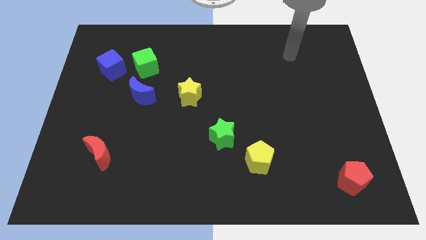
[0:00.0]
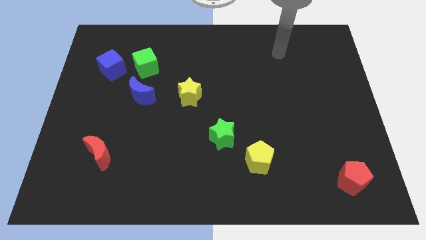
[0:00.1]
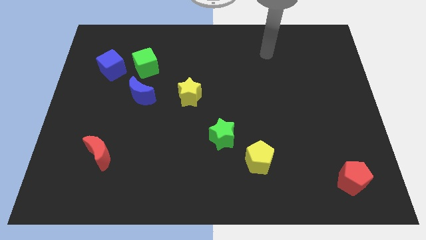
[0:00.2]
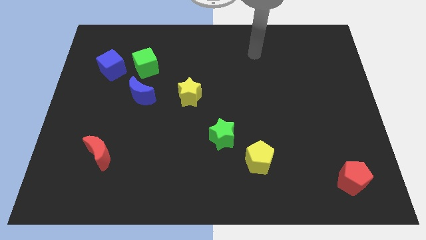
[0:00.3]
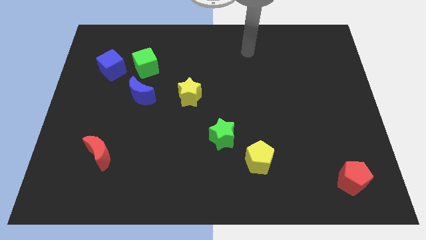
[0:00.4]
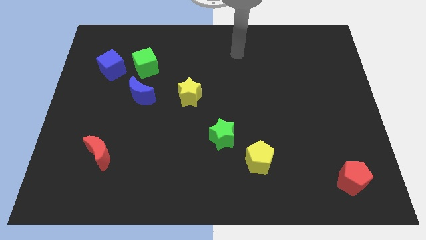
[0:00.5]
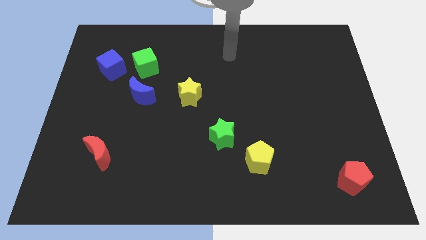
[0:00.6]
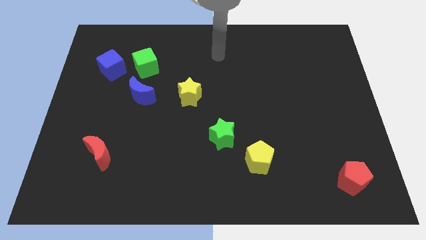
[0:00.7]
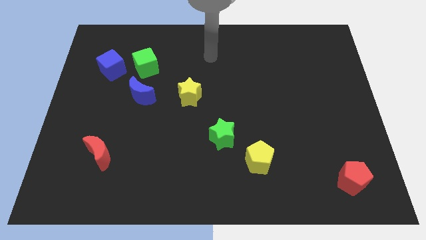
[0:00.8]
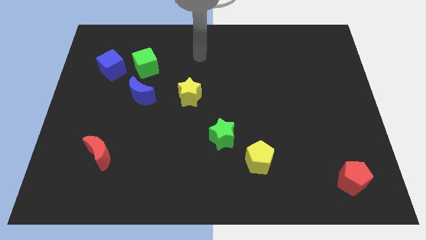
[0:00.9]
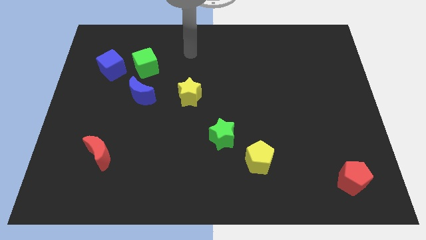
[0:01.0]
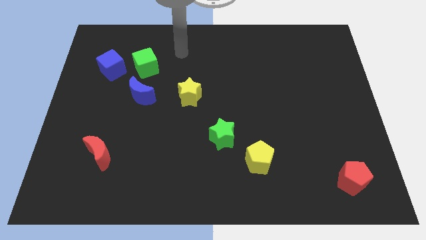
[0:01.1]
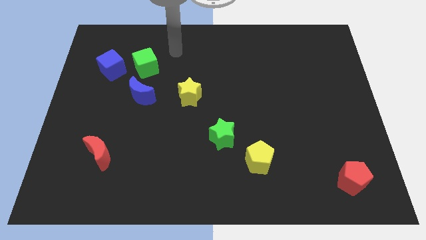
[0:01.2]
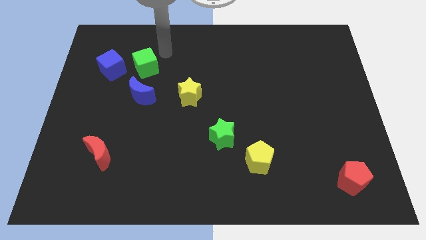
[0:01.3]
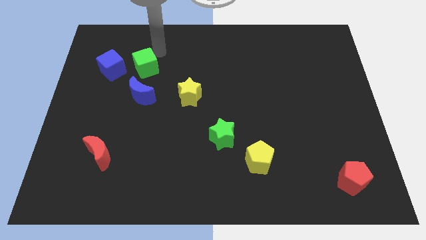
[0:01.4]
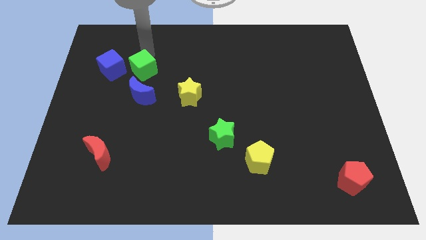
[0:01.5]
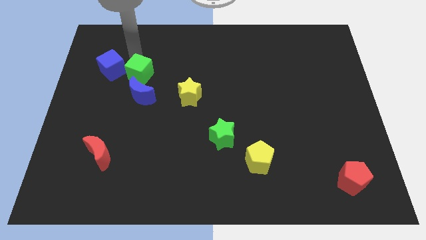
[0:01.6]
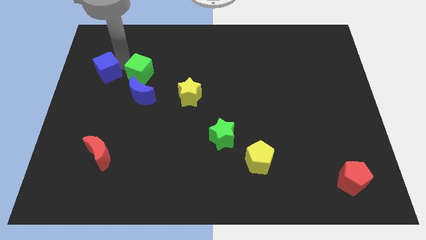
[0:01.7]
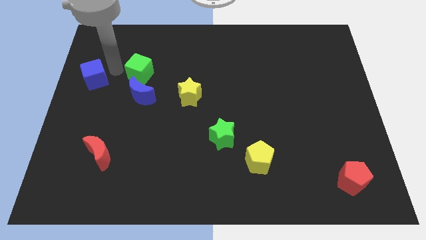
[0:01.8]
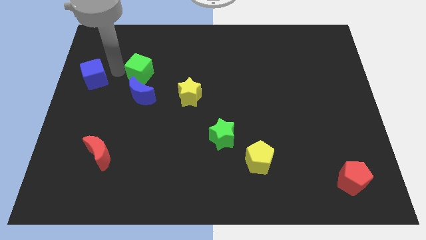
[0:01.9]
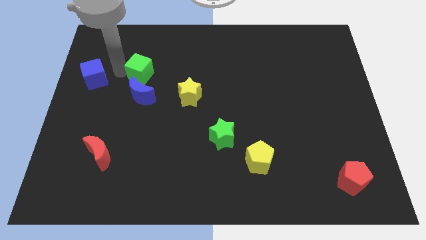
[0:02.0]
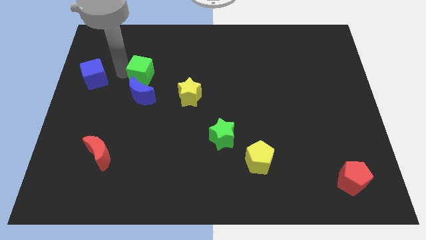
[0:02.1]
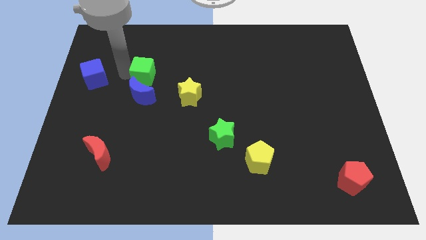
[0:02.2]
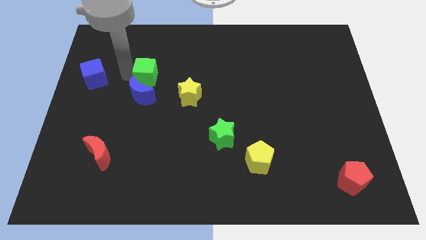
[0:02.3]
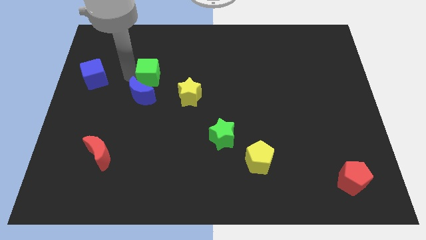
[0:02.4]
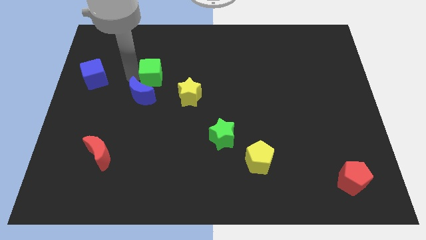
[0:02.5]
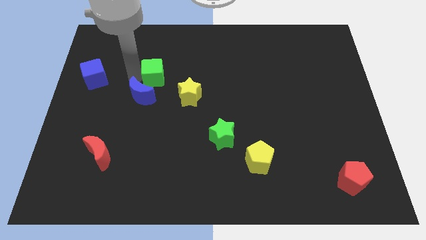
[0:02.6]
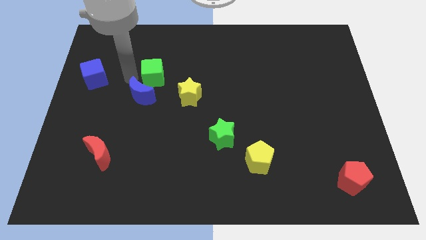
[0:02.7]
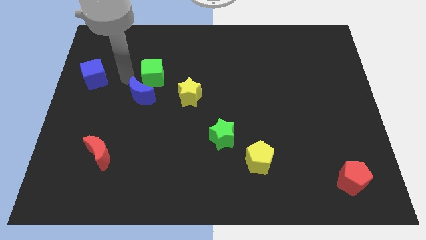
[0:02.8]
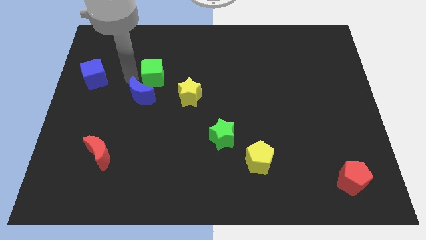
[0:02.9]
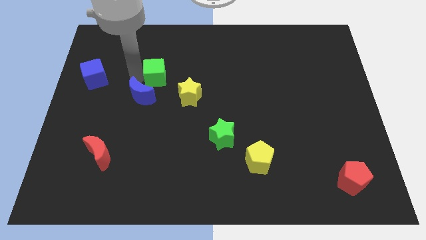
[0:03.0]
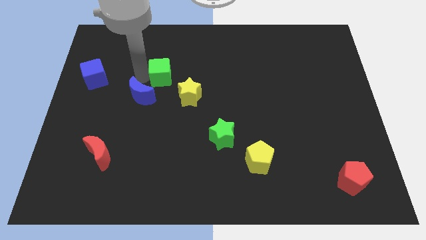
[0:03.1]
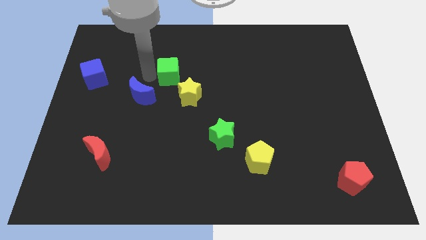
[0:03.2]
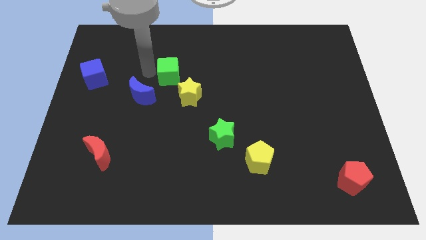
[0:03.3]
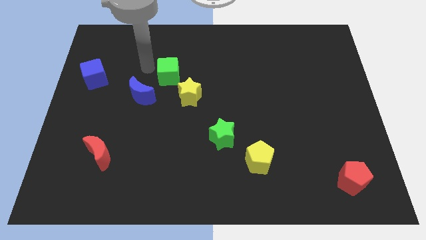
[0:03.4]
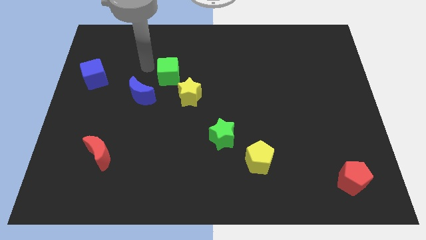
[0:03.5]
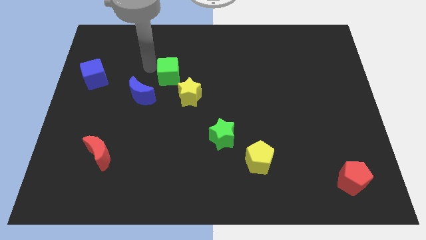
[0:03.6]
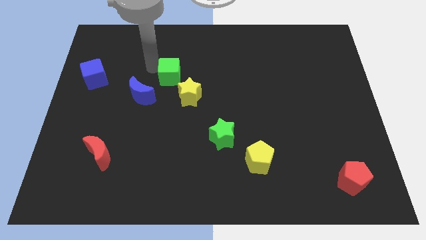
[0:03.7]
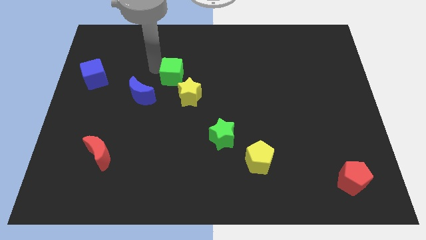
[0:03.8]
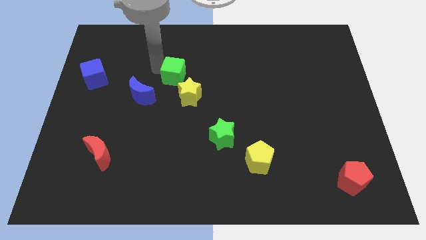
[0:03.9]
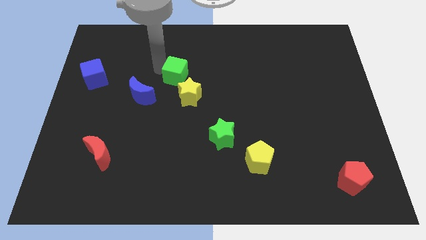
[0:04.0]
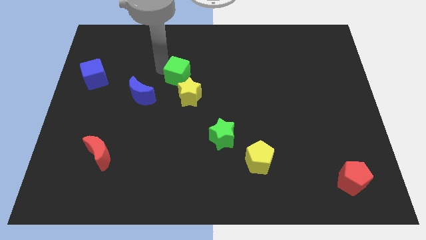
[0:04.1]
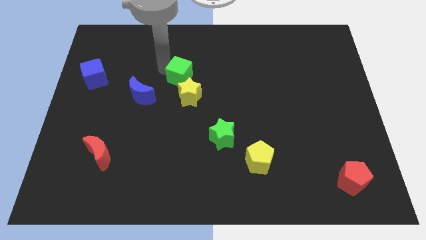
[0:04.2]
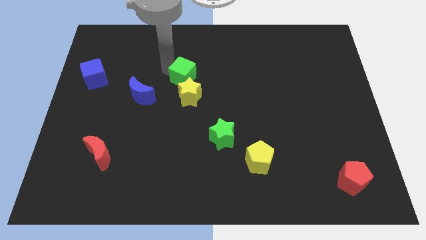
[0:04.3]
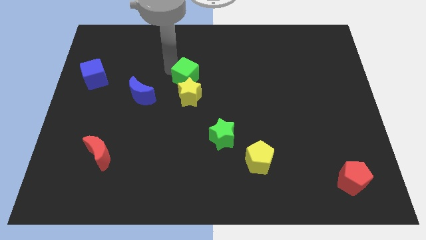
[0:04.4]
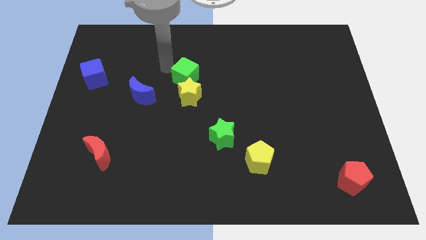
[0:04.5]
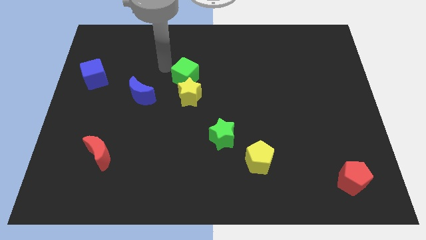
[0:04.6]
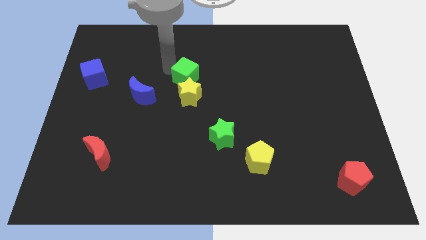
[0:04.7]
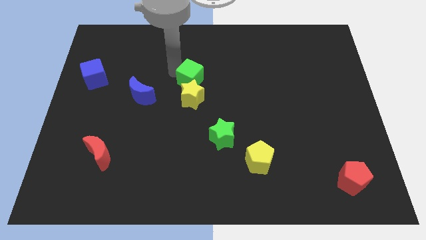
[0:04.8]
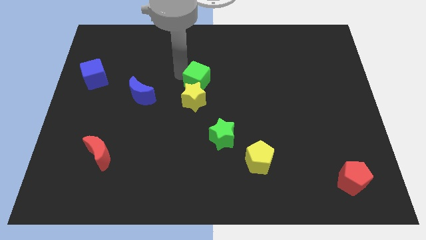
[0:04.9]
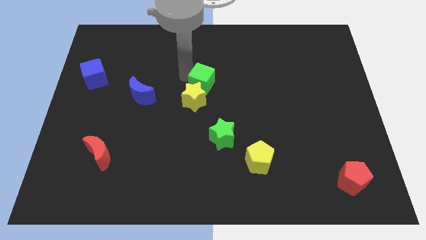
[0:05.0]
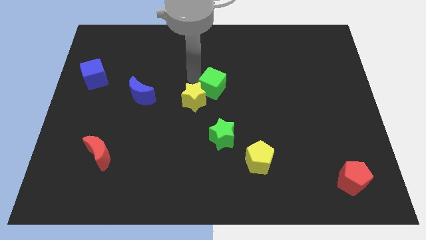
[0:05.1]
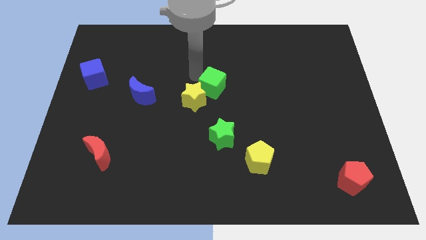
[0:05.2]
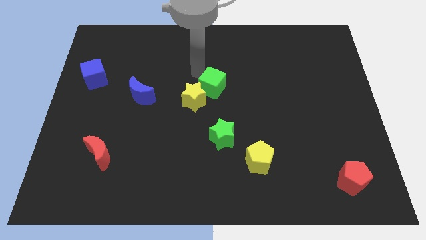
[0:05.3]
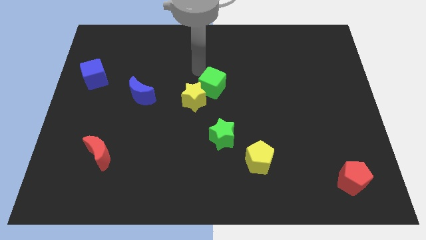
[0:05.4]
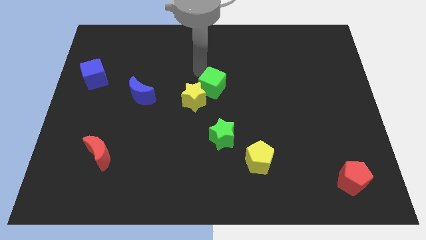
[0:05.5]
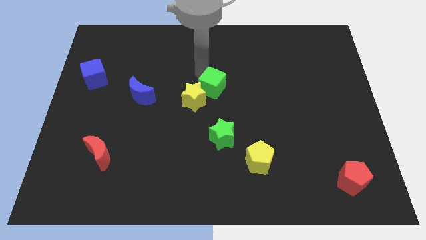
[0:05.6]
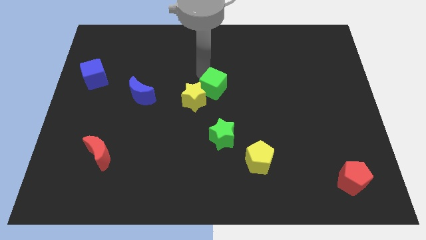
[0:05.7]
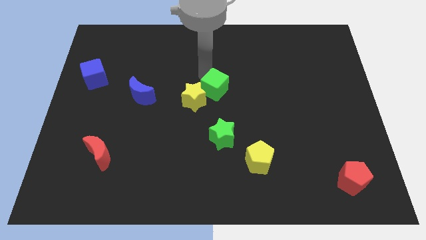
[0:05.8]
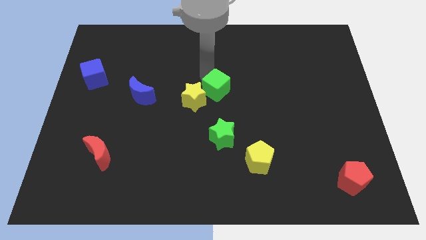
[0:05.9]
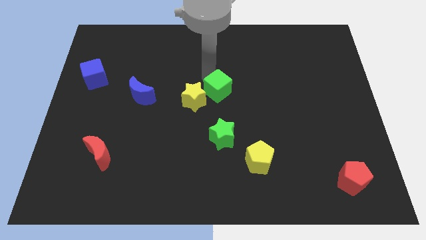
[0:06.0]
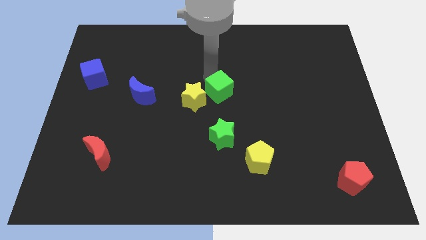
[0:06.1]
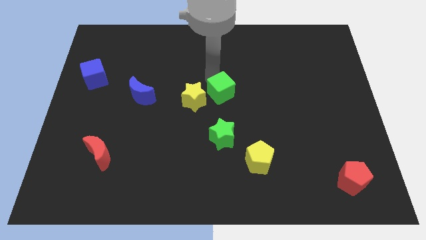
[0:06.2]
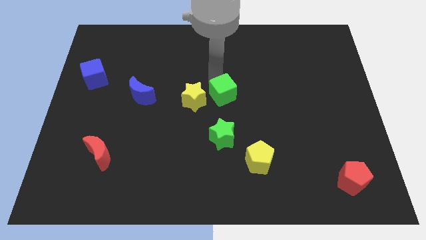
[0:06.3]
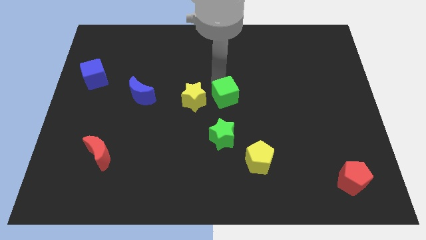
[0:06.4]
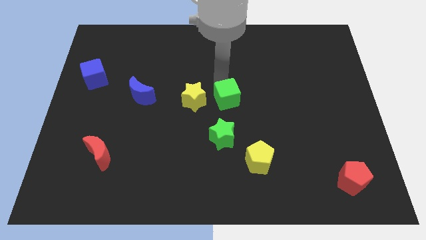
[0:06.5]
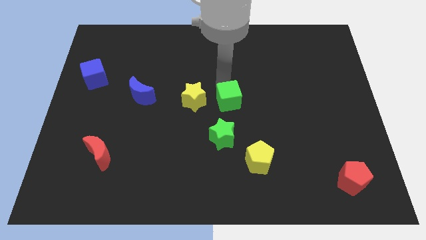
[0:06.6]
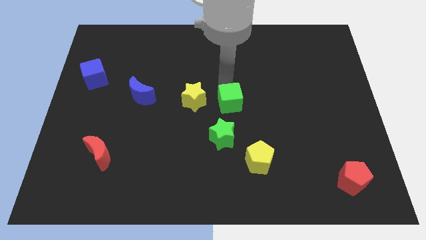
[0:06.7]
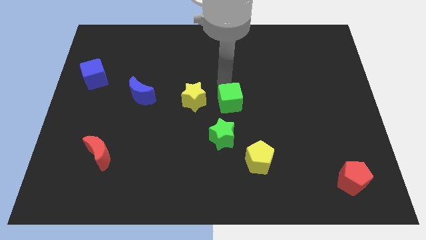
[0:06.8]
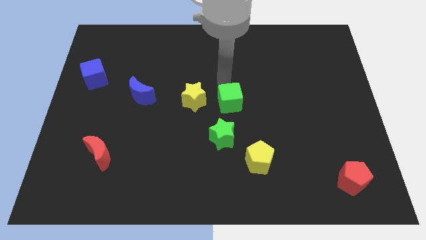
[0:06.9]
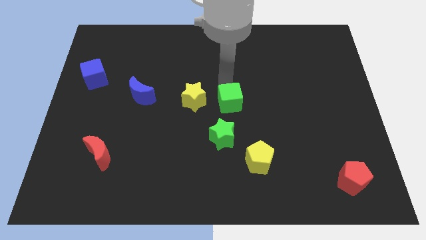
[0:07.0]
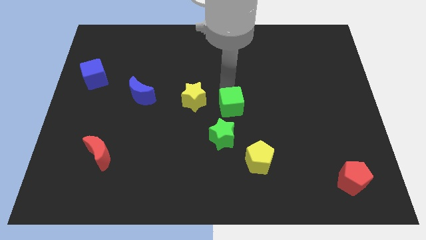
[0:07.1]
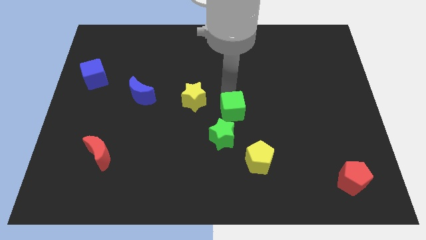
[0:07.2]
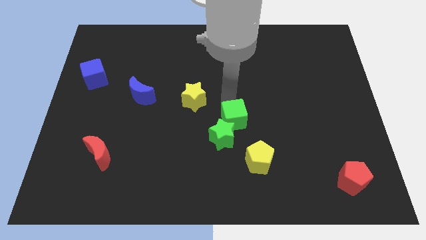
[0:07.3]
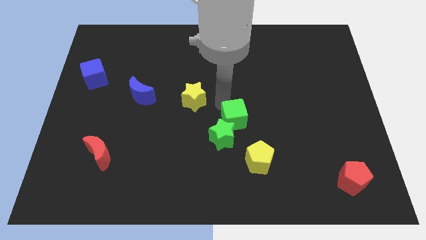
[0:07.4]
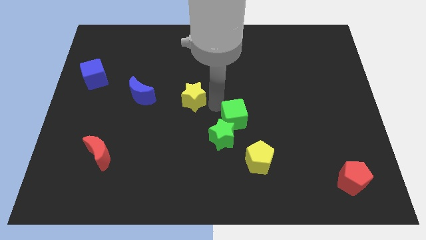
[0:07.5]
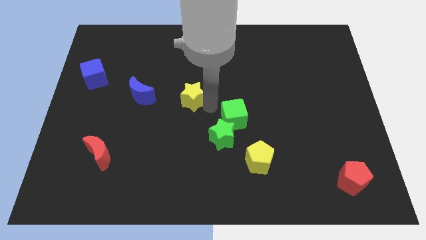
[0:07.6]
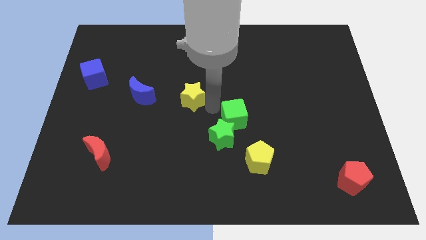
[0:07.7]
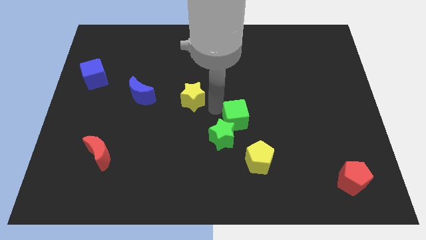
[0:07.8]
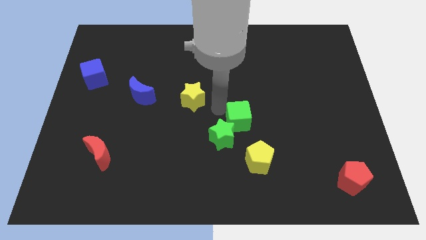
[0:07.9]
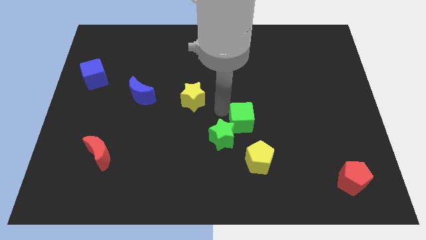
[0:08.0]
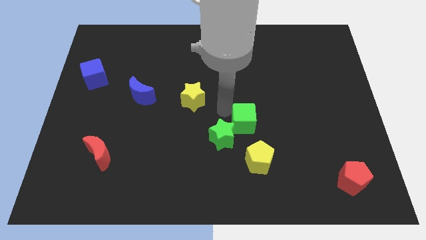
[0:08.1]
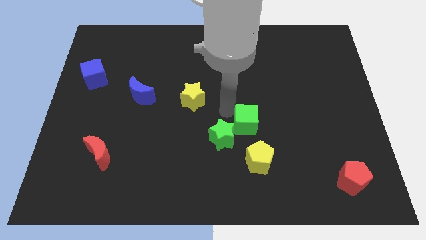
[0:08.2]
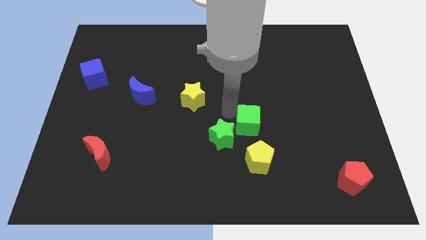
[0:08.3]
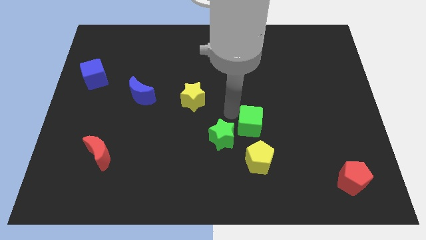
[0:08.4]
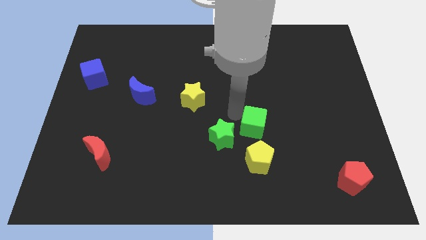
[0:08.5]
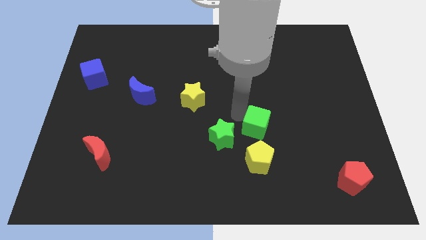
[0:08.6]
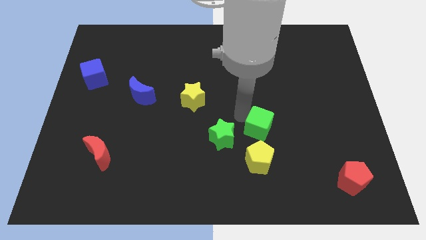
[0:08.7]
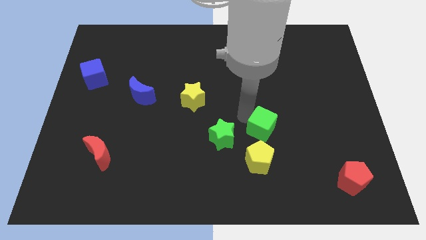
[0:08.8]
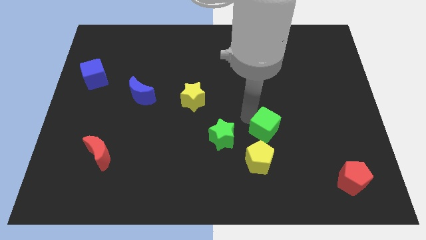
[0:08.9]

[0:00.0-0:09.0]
push the green cube to the top right side of the yellow pentagon
